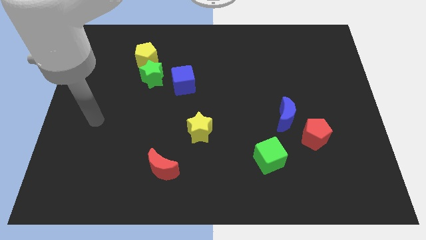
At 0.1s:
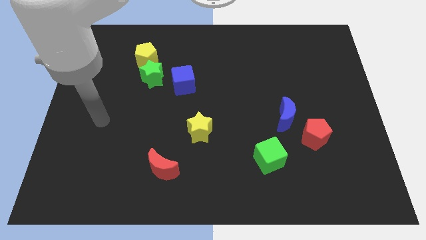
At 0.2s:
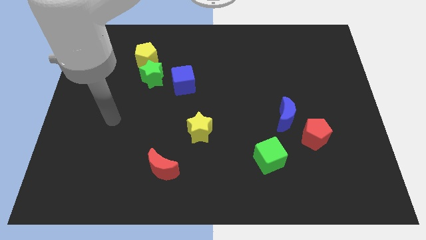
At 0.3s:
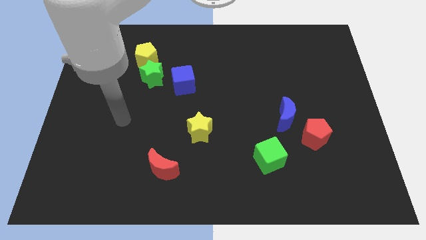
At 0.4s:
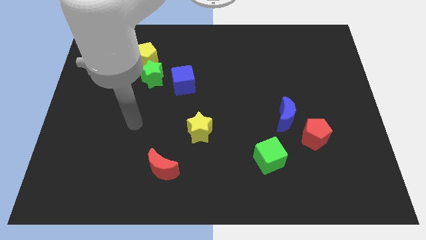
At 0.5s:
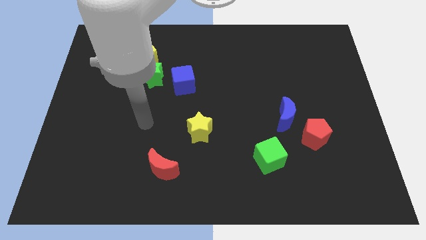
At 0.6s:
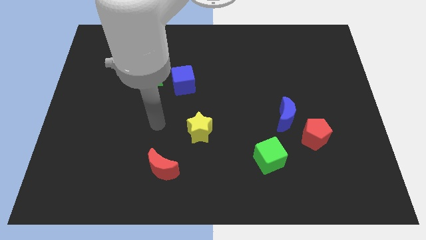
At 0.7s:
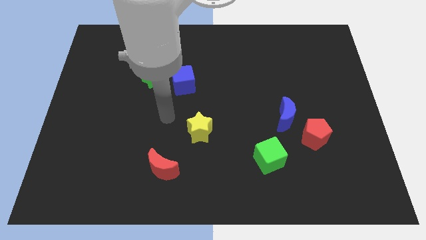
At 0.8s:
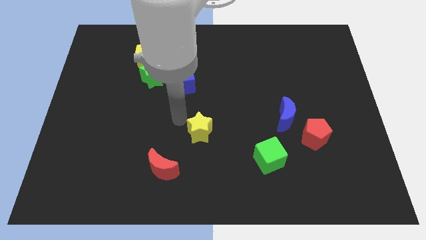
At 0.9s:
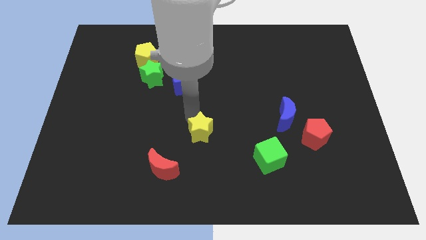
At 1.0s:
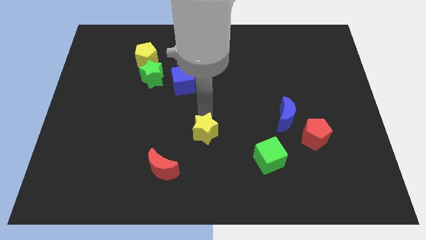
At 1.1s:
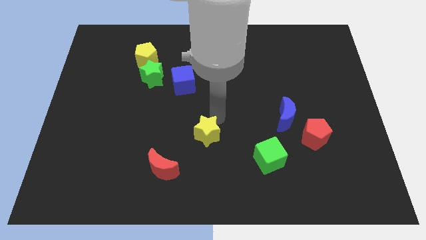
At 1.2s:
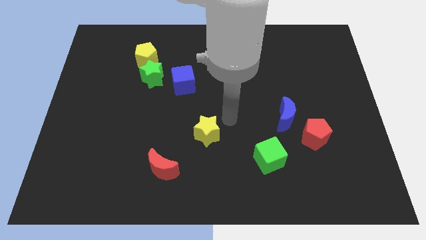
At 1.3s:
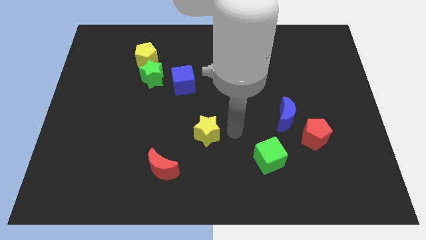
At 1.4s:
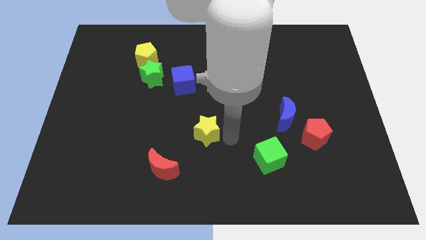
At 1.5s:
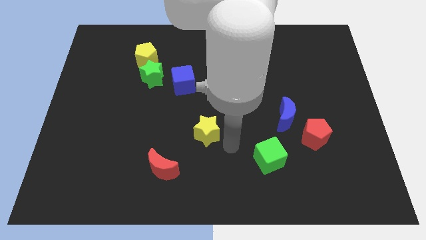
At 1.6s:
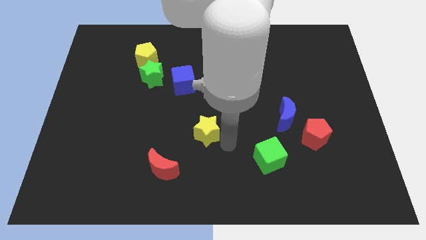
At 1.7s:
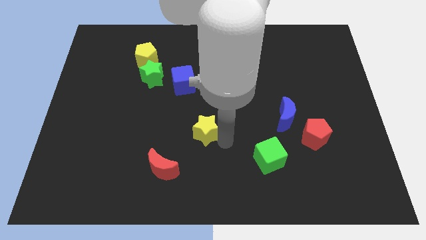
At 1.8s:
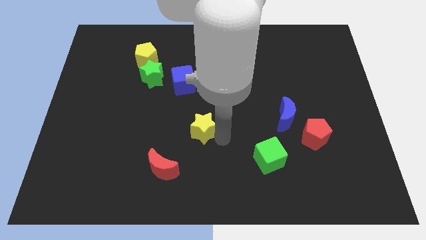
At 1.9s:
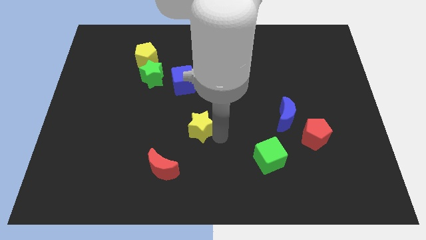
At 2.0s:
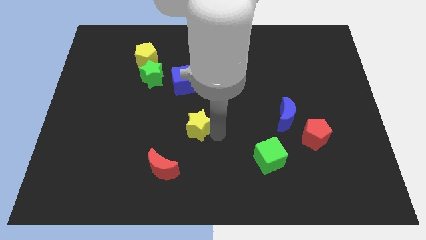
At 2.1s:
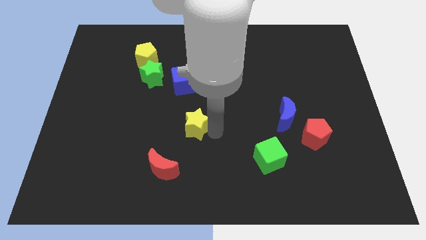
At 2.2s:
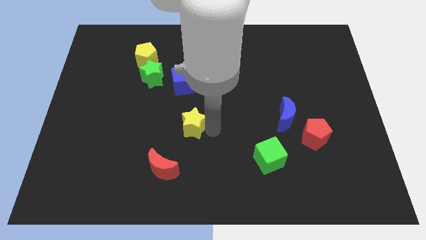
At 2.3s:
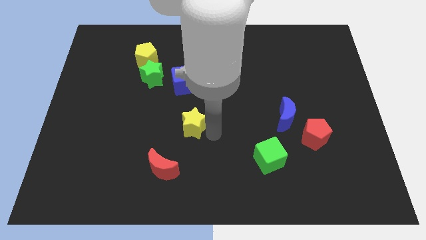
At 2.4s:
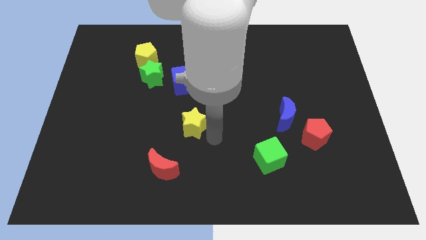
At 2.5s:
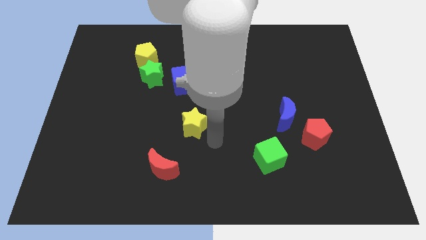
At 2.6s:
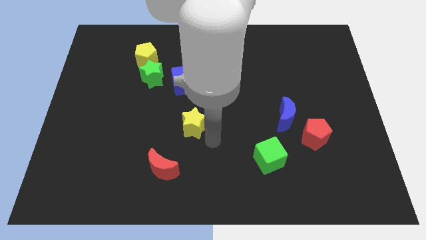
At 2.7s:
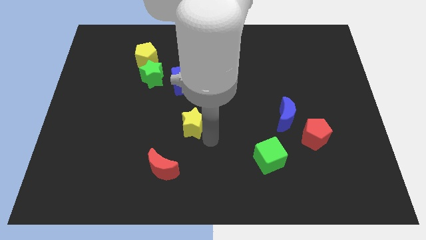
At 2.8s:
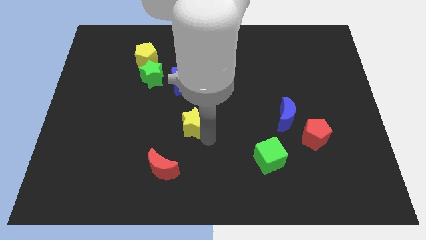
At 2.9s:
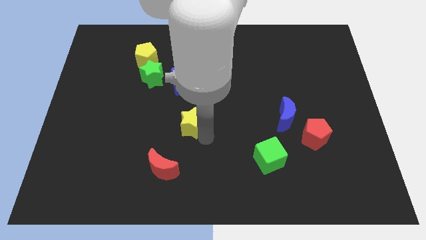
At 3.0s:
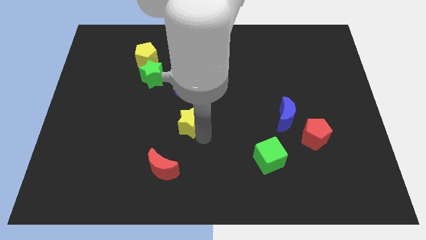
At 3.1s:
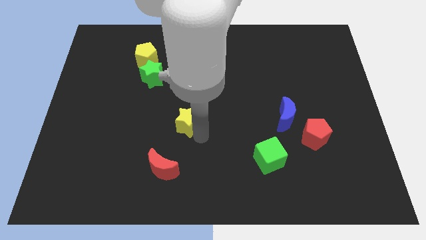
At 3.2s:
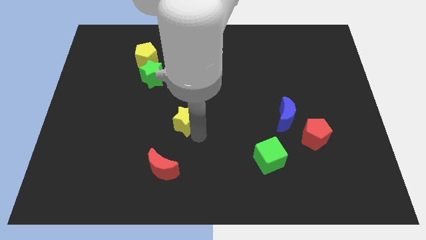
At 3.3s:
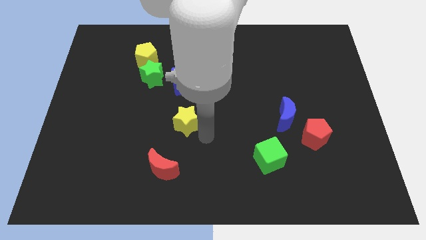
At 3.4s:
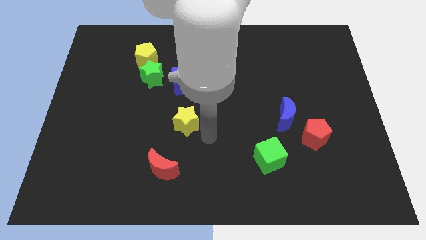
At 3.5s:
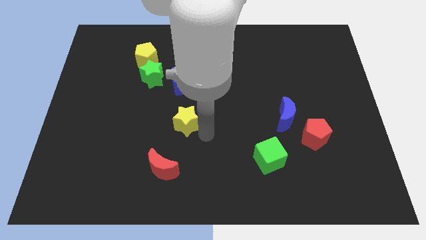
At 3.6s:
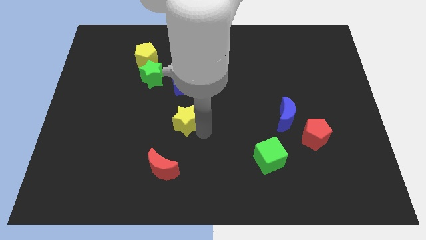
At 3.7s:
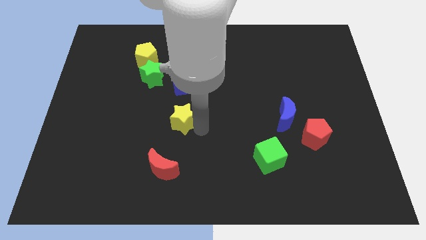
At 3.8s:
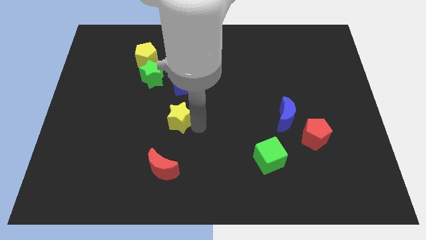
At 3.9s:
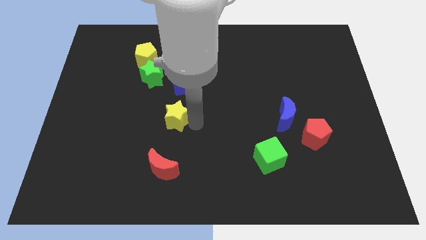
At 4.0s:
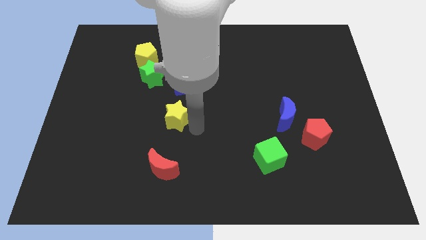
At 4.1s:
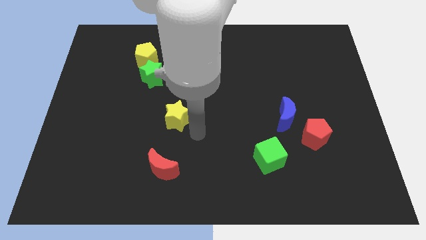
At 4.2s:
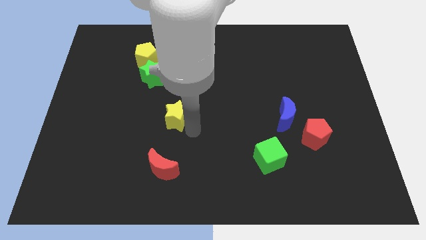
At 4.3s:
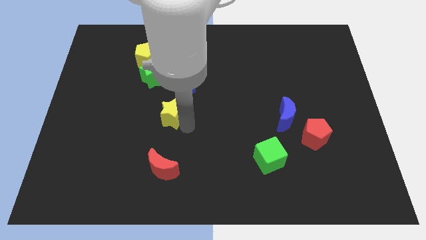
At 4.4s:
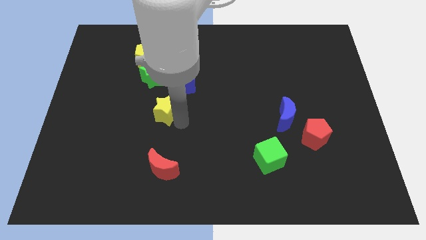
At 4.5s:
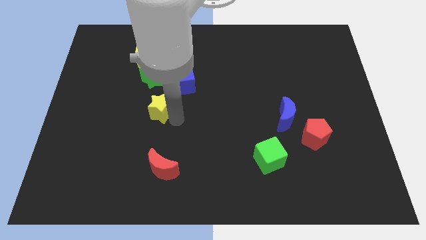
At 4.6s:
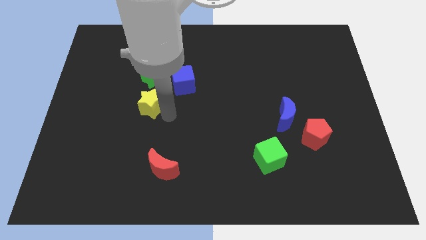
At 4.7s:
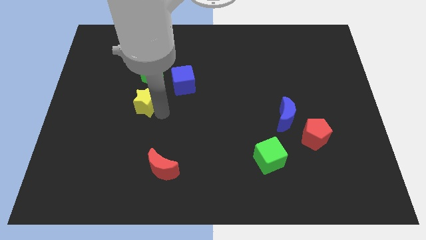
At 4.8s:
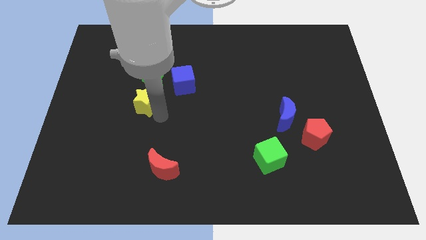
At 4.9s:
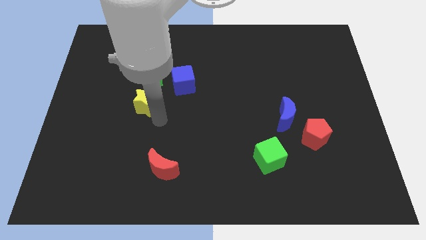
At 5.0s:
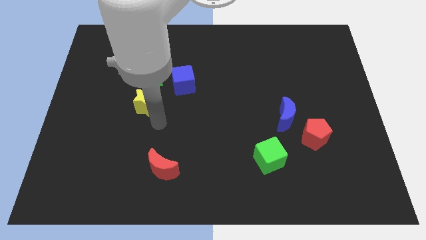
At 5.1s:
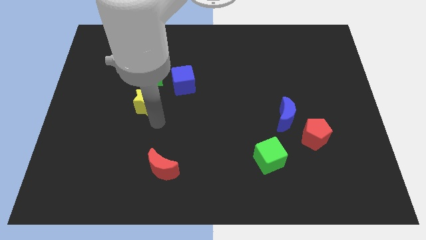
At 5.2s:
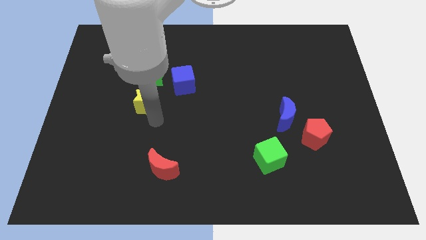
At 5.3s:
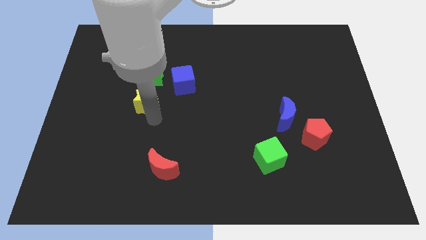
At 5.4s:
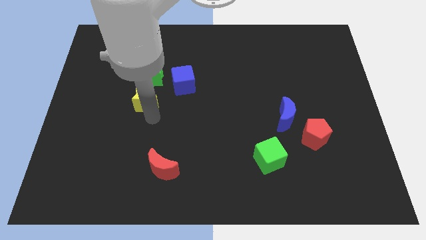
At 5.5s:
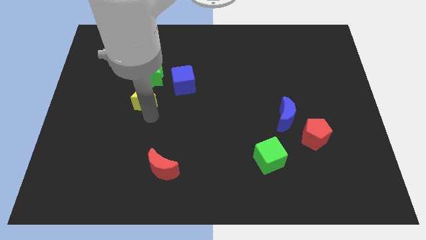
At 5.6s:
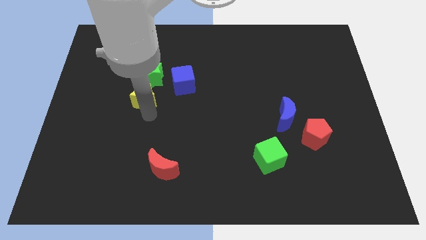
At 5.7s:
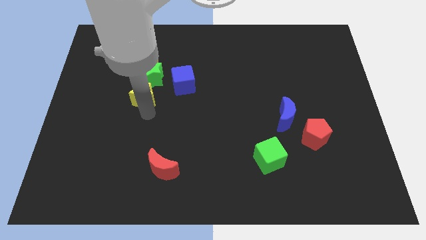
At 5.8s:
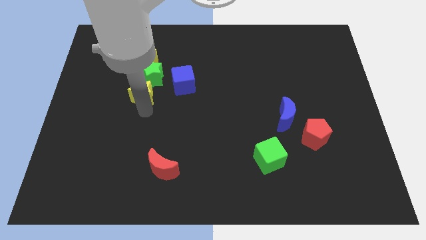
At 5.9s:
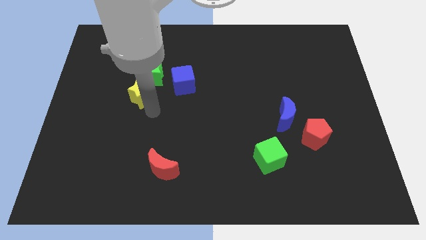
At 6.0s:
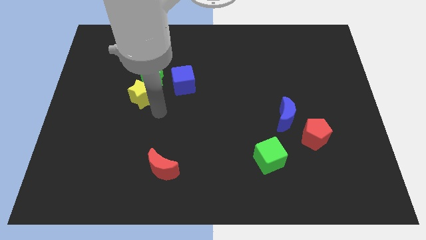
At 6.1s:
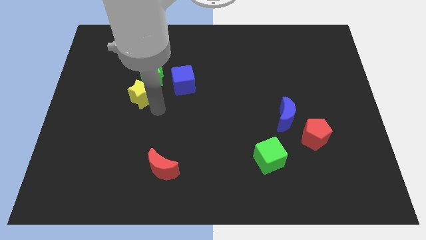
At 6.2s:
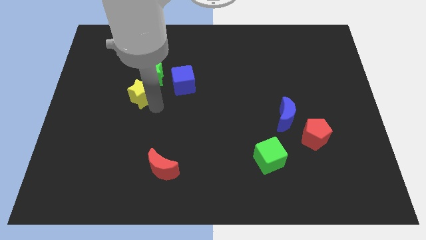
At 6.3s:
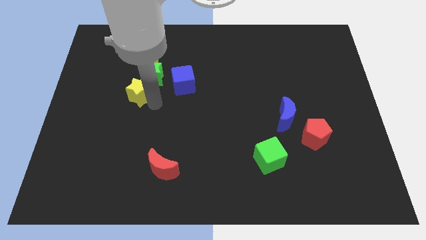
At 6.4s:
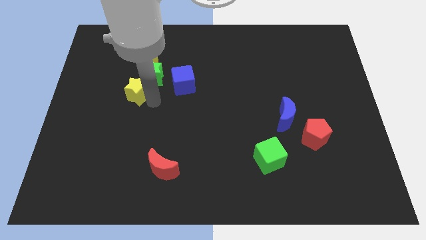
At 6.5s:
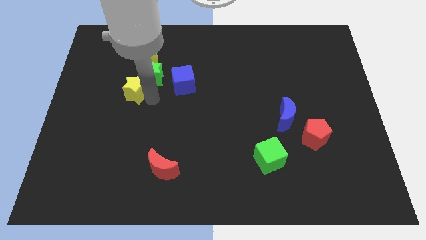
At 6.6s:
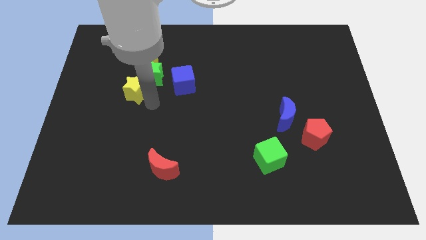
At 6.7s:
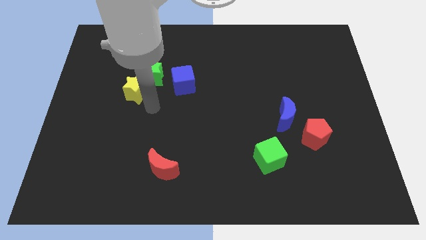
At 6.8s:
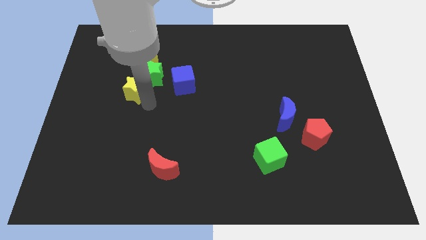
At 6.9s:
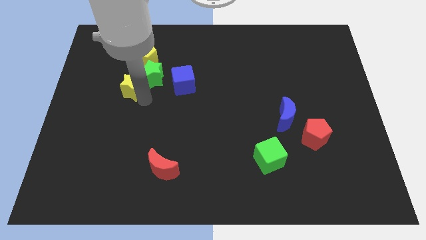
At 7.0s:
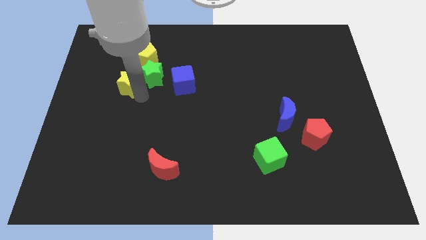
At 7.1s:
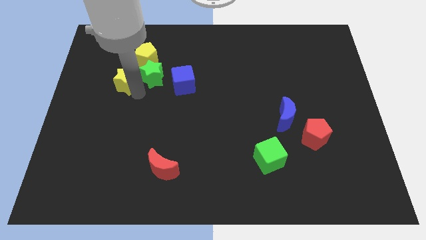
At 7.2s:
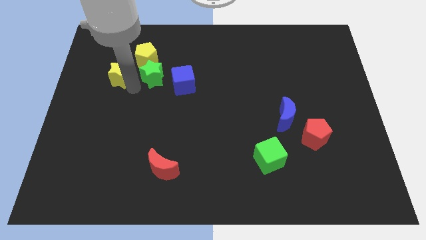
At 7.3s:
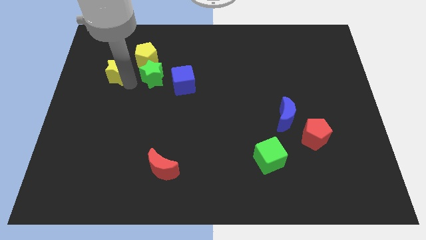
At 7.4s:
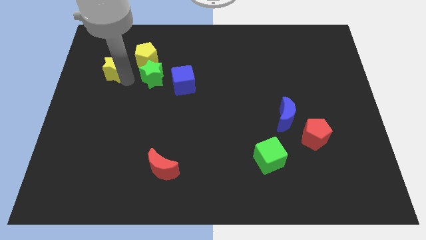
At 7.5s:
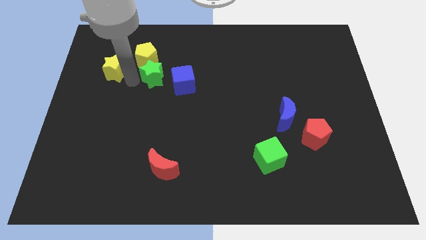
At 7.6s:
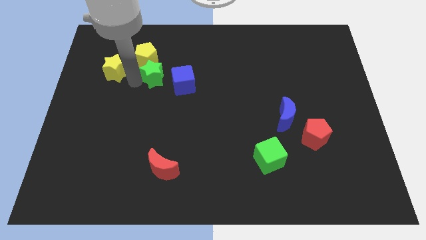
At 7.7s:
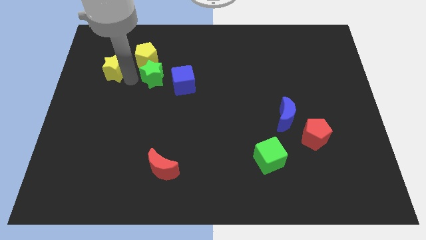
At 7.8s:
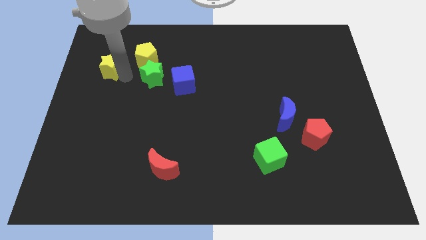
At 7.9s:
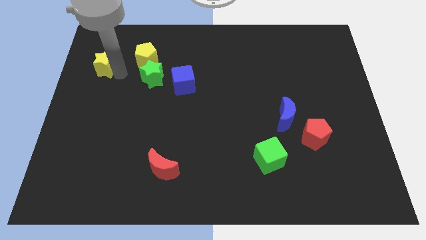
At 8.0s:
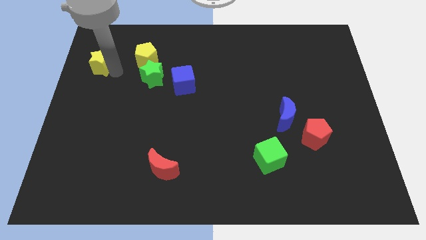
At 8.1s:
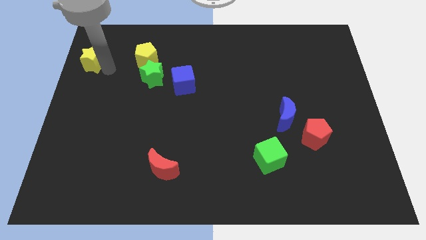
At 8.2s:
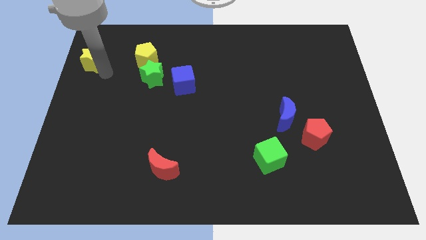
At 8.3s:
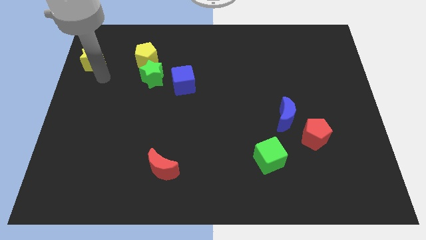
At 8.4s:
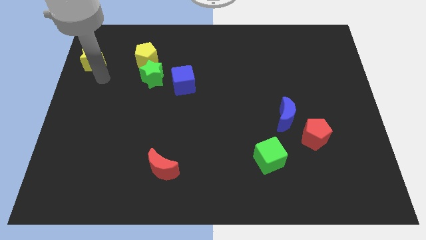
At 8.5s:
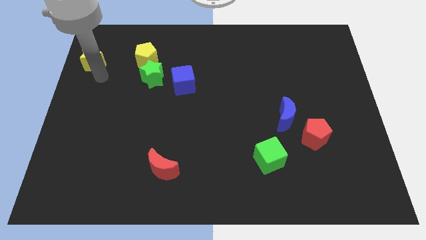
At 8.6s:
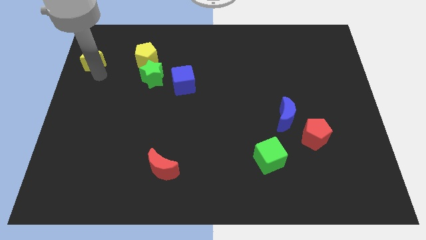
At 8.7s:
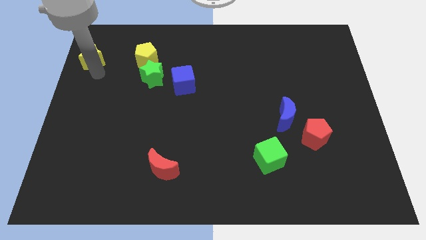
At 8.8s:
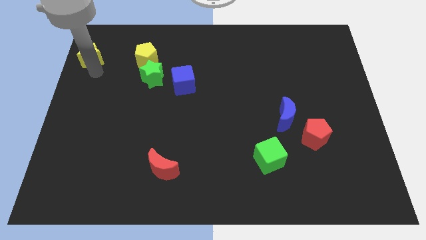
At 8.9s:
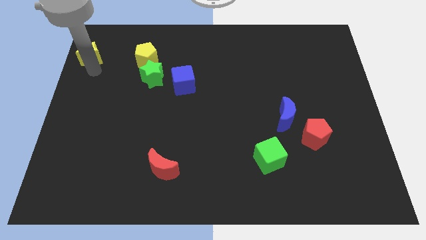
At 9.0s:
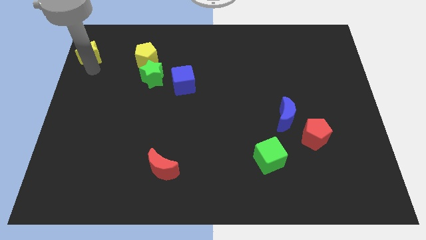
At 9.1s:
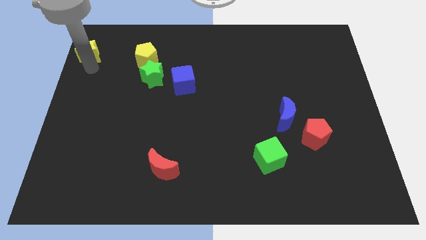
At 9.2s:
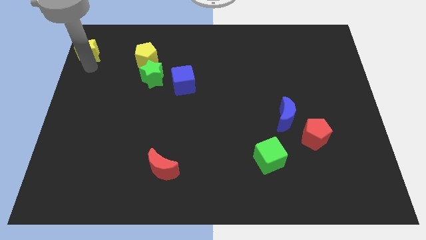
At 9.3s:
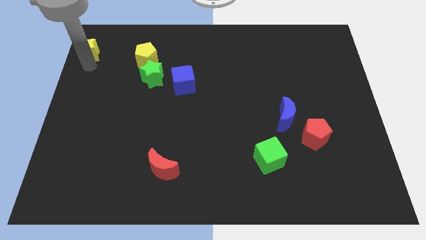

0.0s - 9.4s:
put the yellow star to the top left corner
